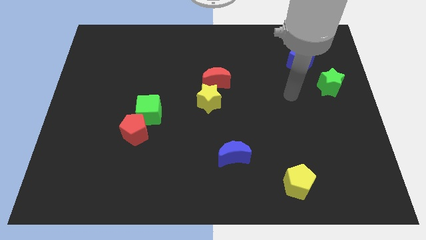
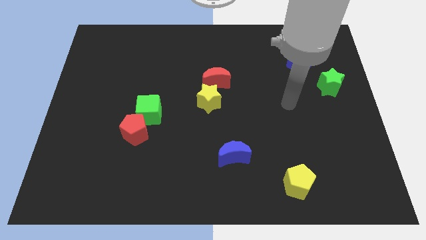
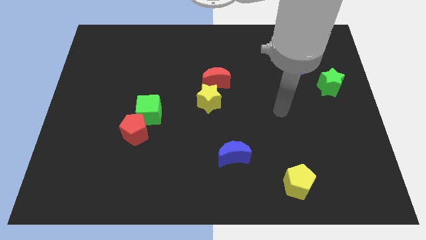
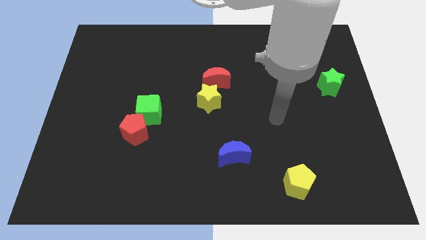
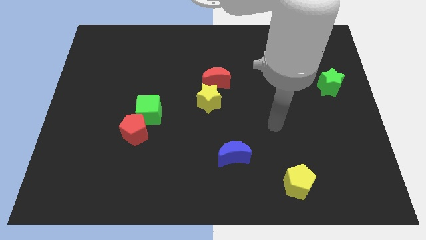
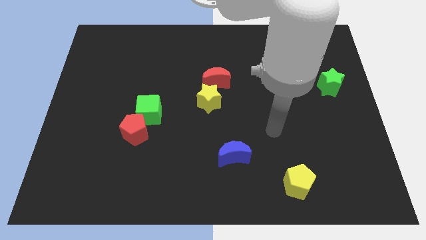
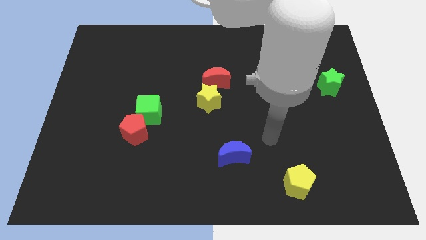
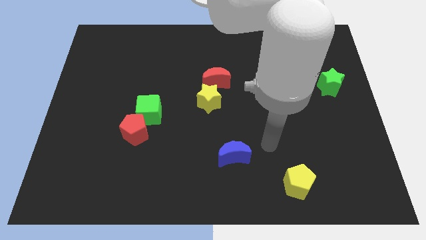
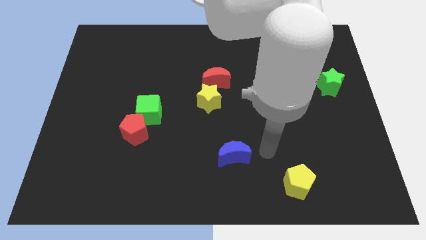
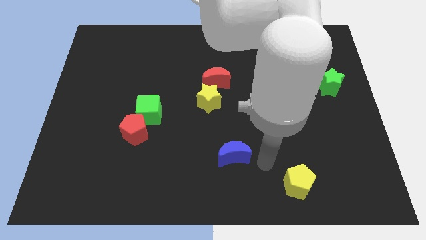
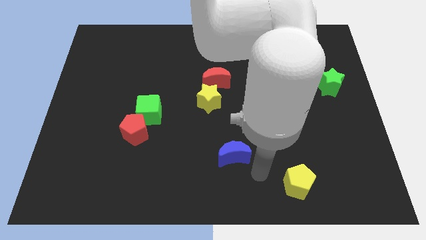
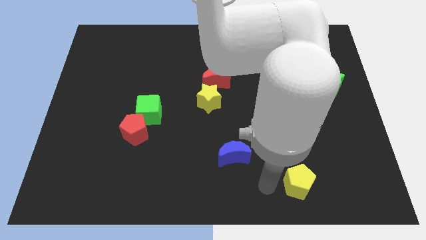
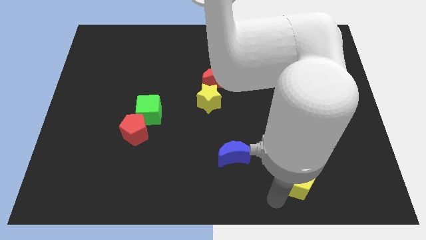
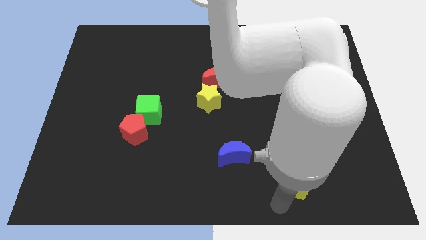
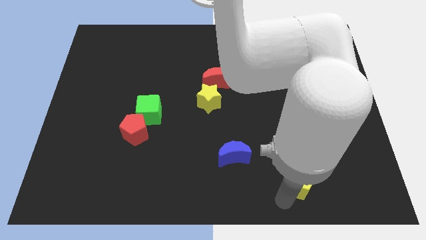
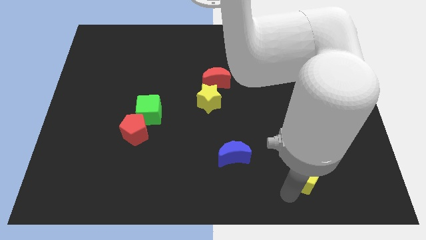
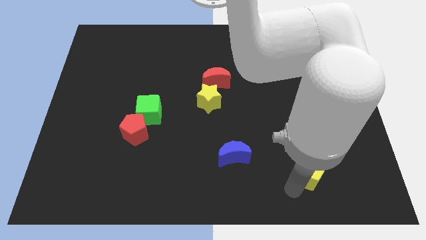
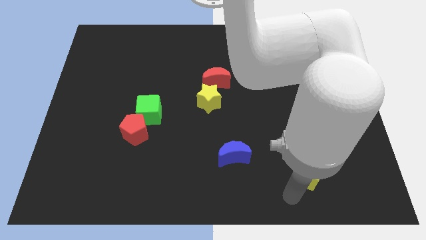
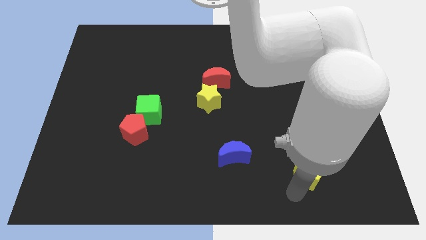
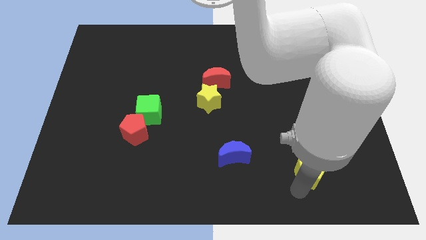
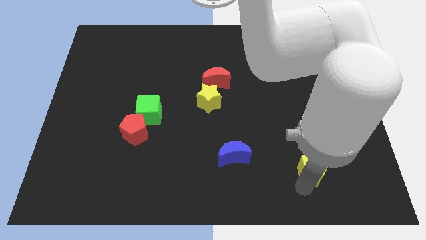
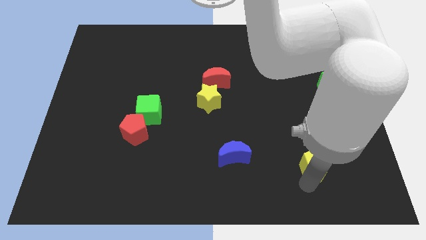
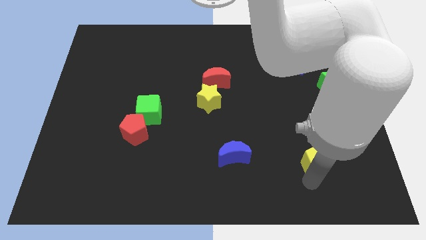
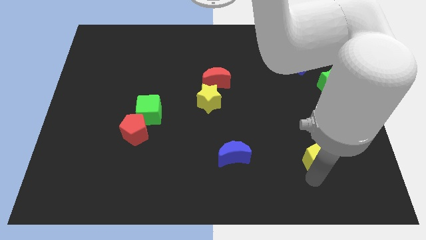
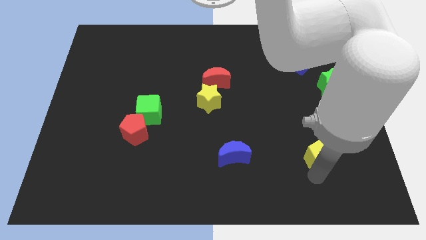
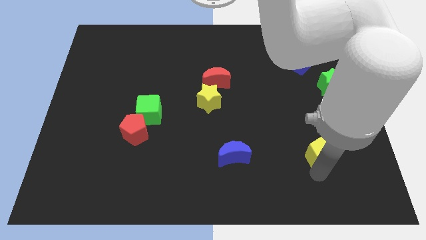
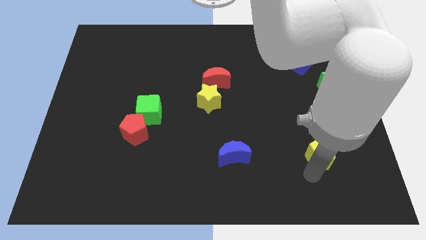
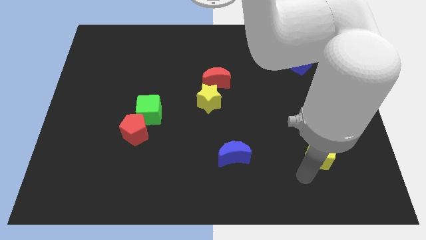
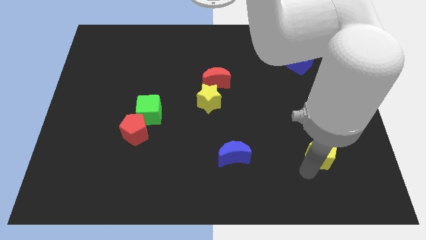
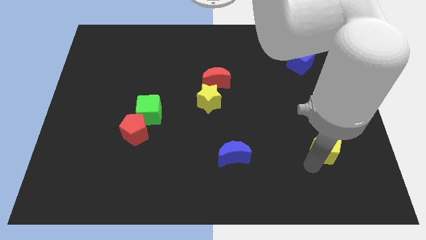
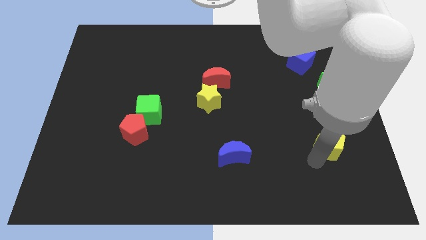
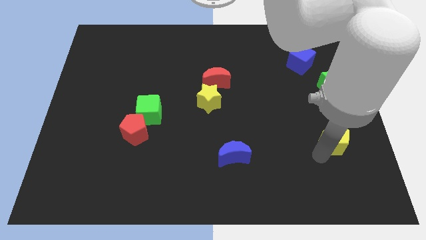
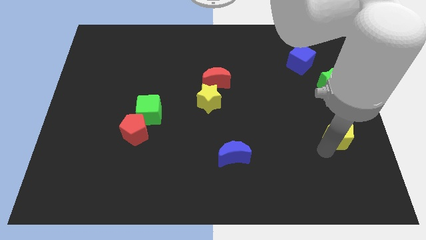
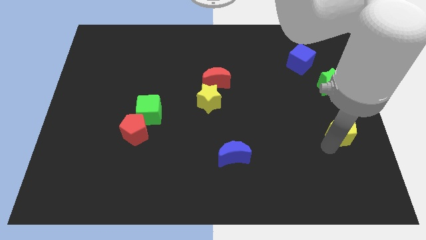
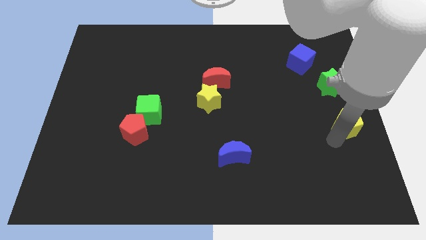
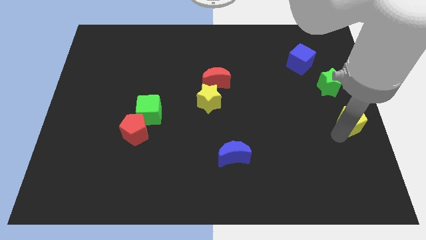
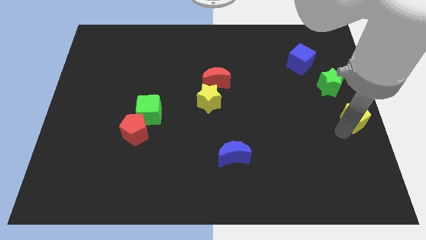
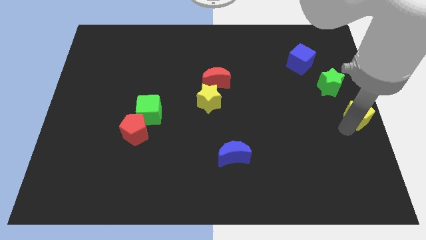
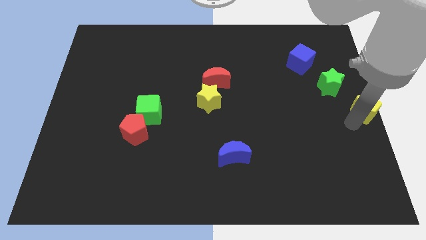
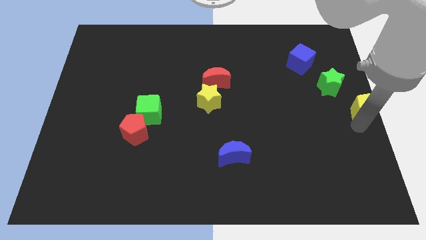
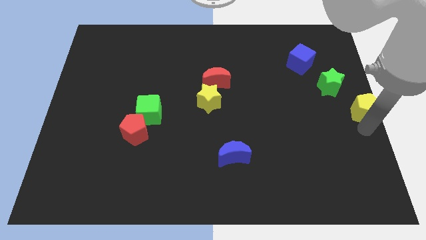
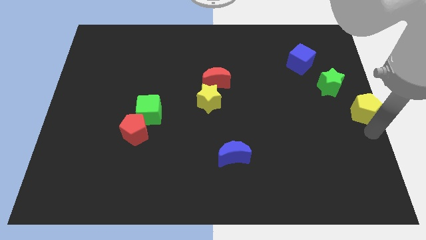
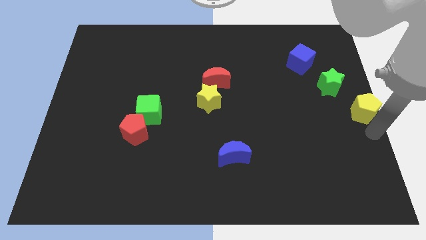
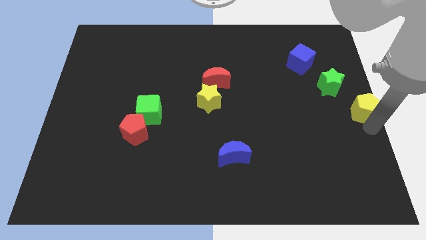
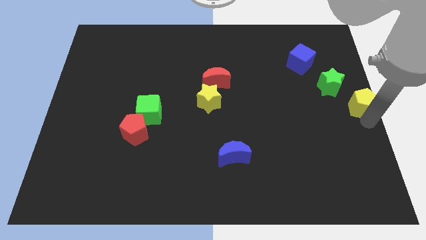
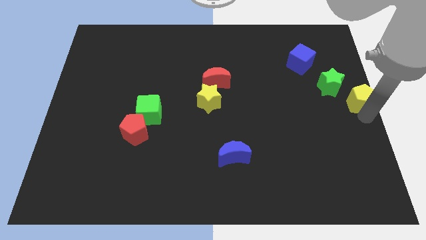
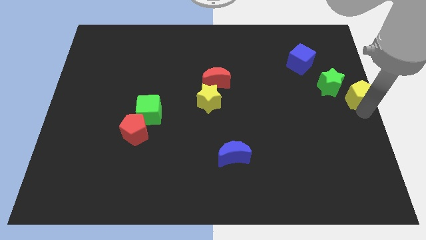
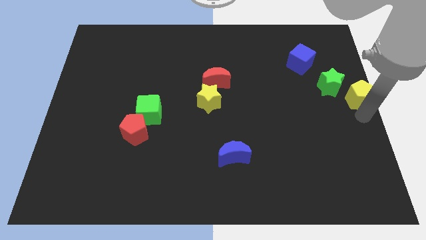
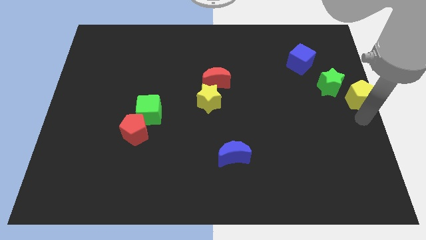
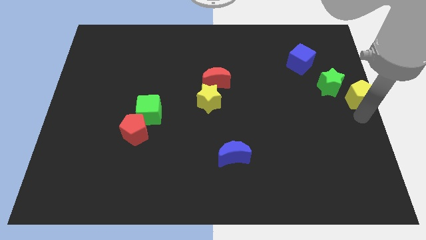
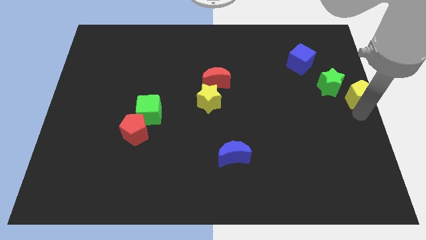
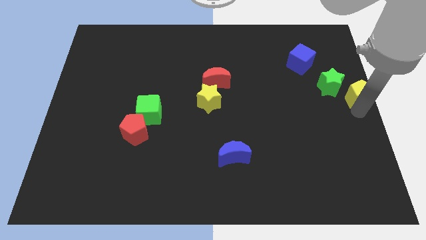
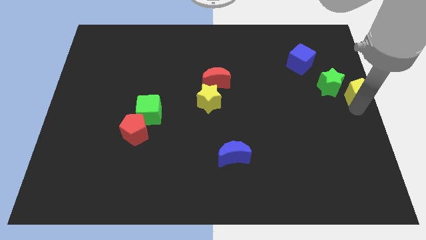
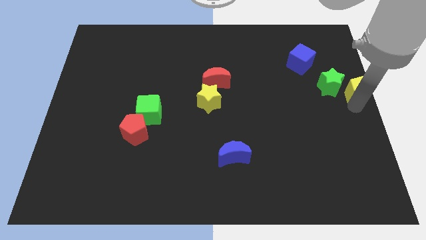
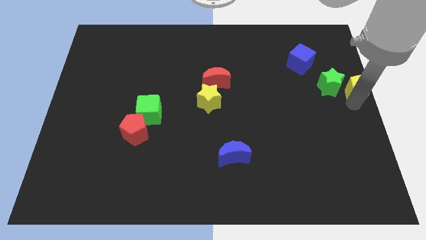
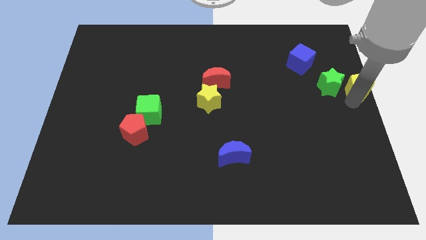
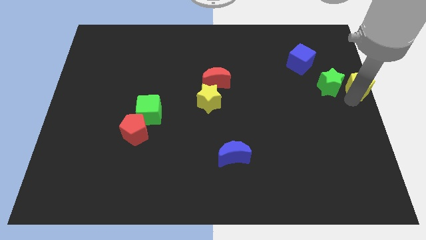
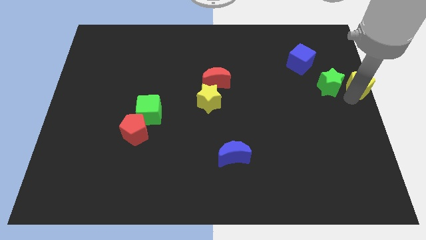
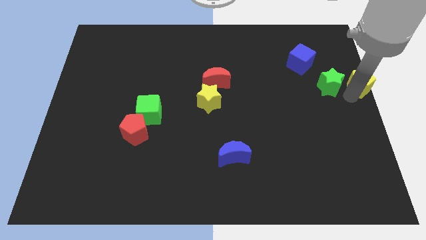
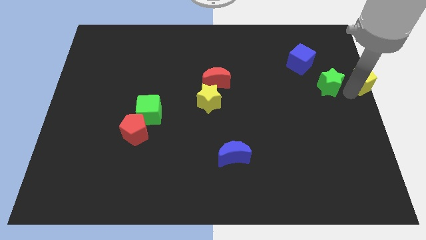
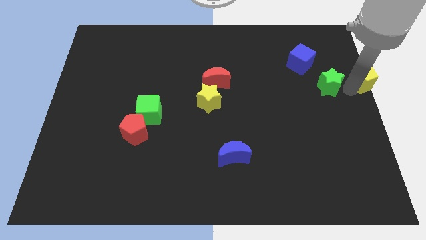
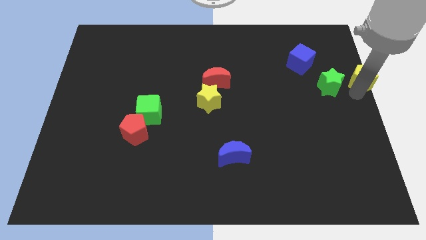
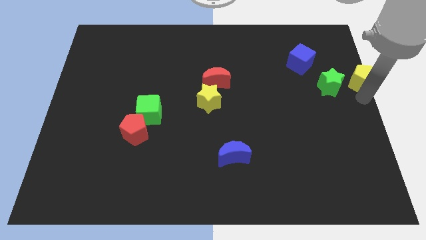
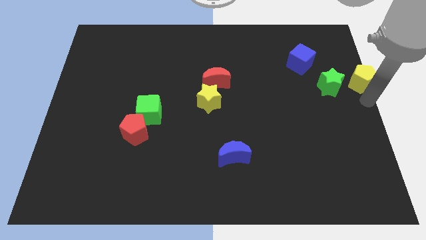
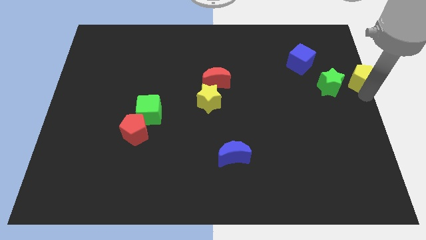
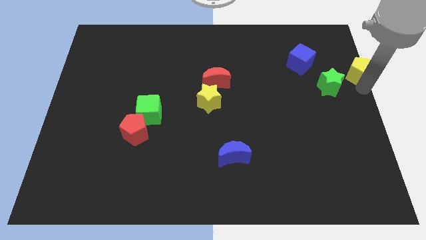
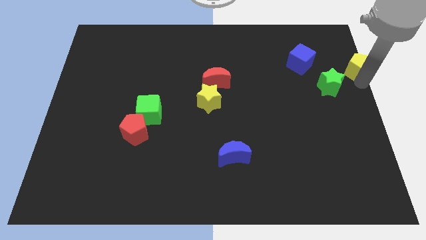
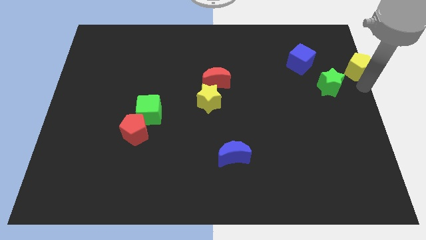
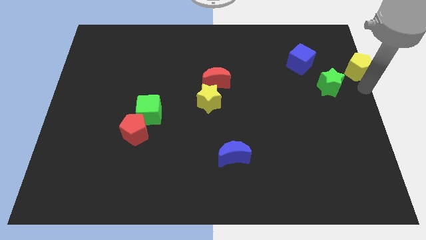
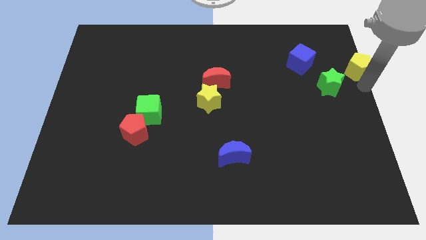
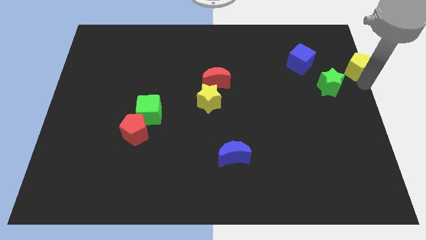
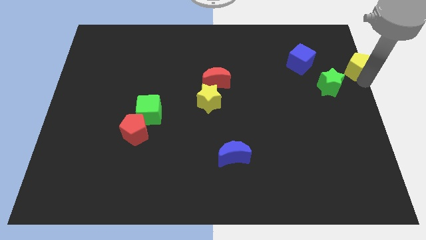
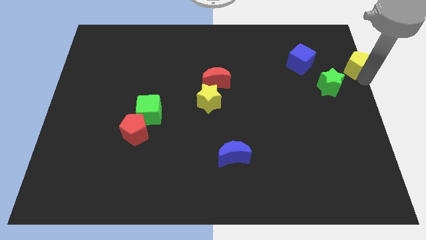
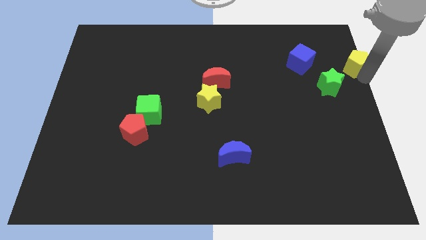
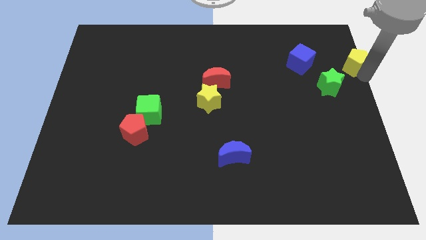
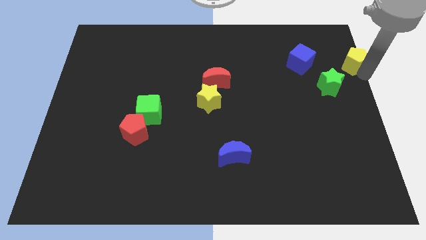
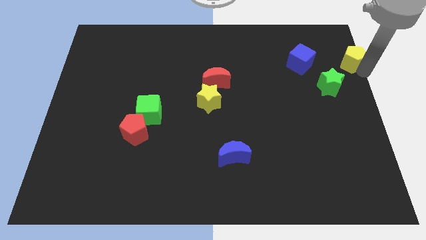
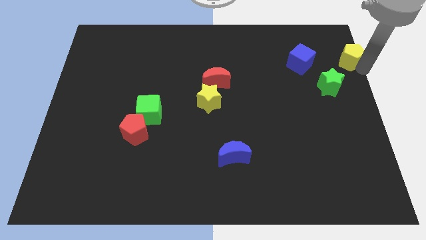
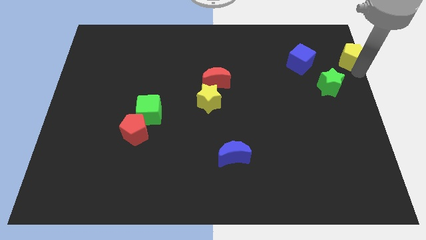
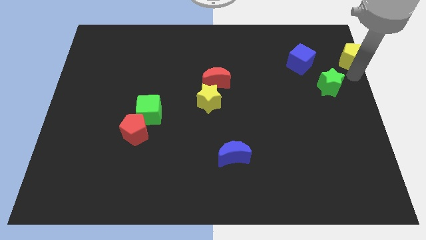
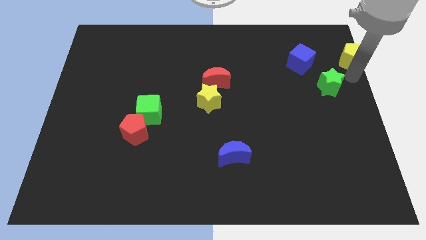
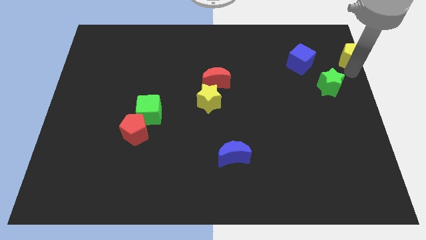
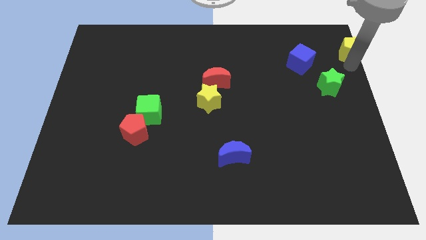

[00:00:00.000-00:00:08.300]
move the yellow pentagon to the upper right corner
